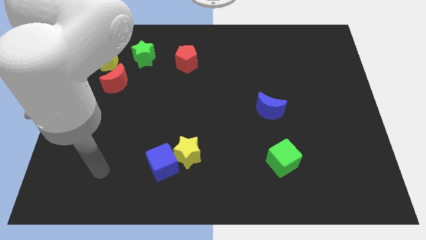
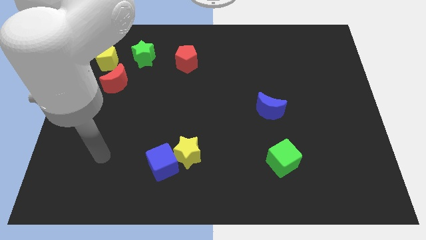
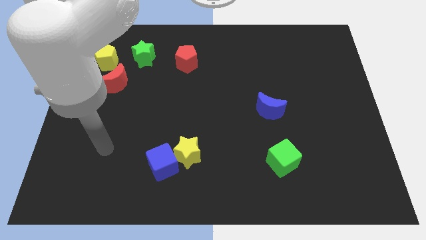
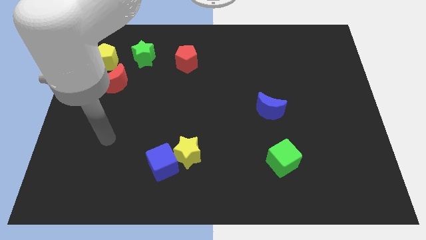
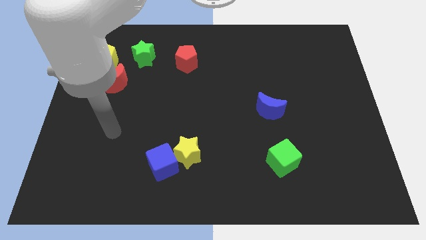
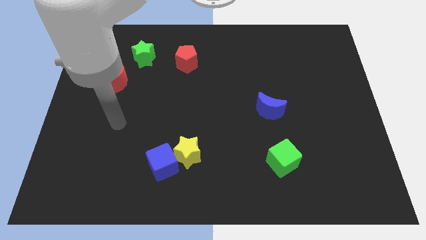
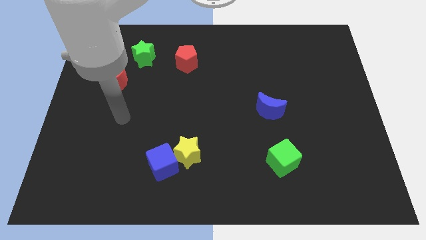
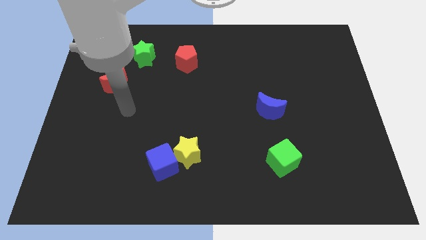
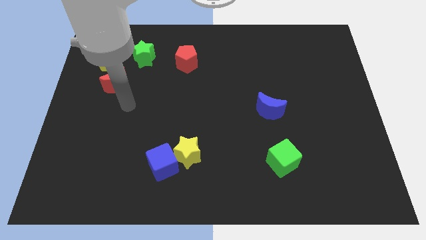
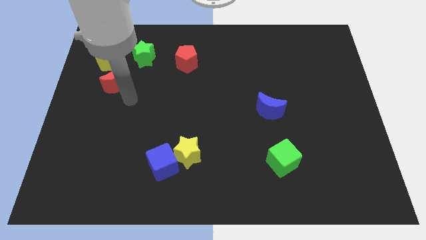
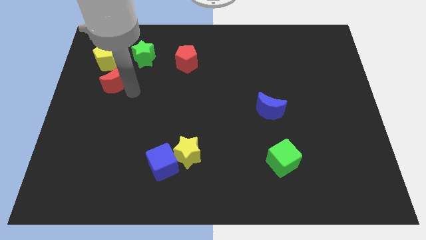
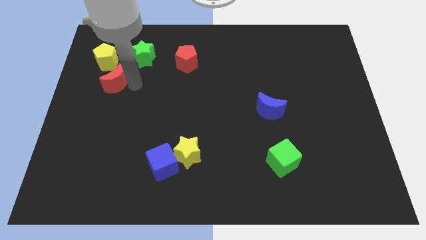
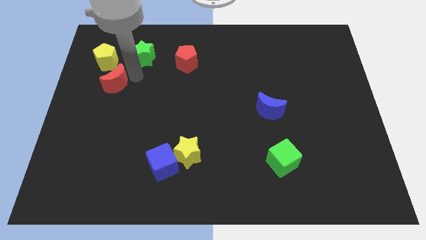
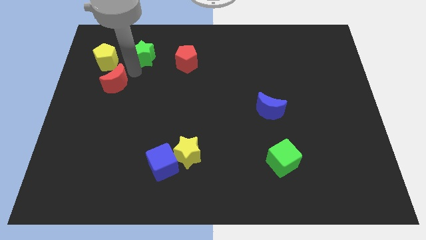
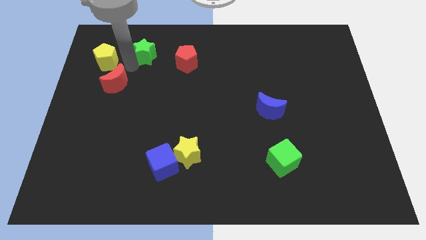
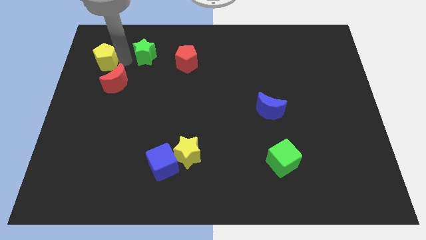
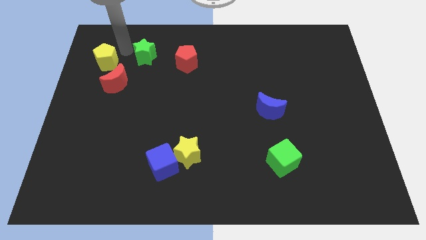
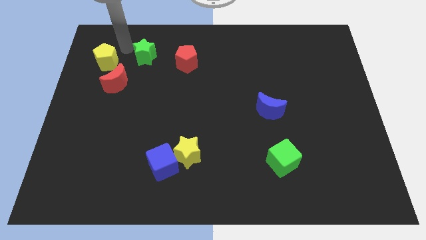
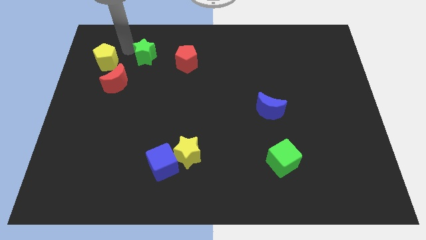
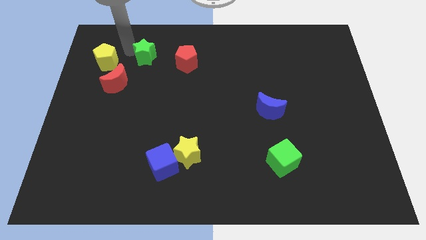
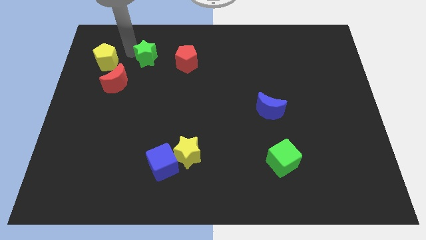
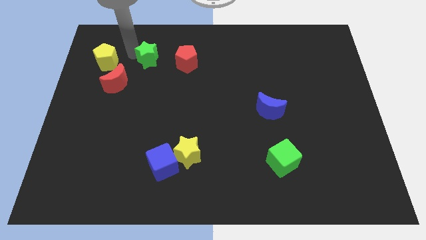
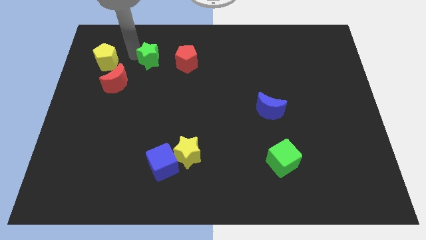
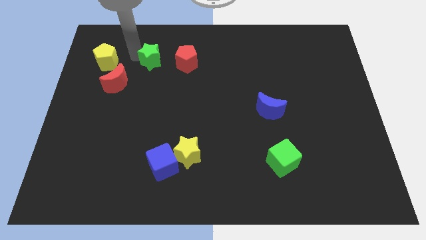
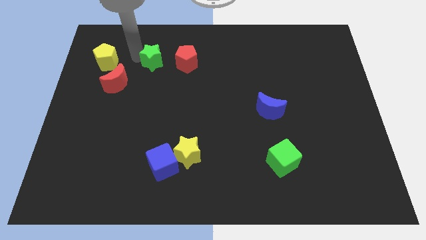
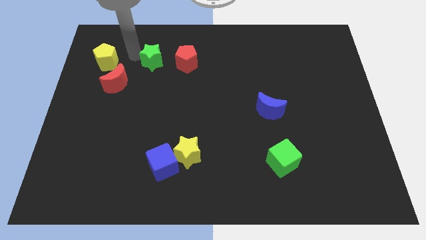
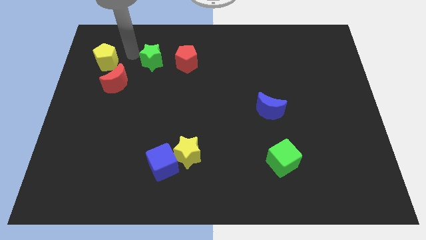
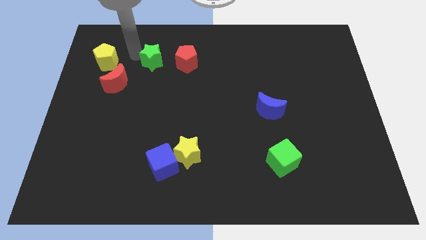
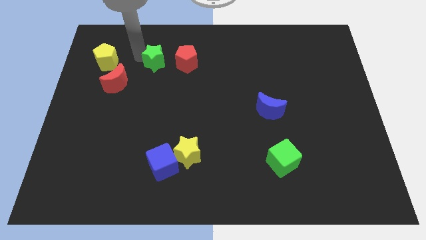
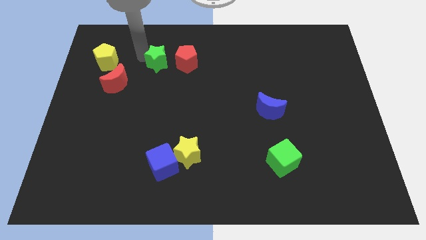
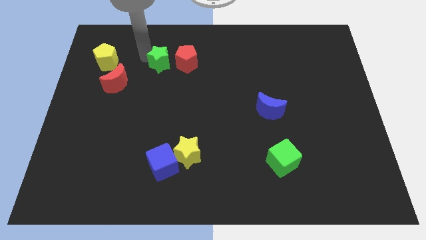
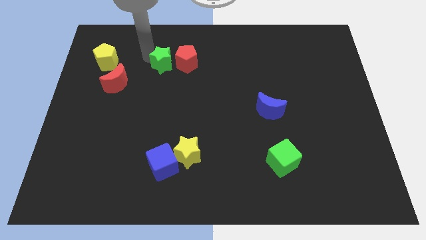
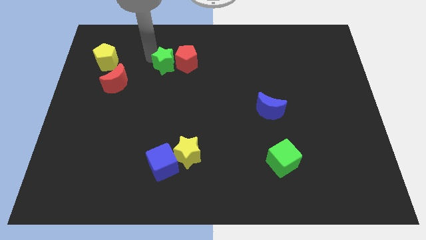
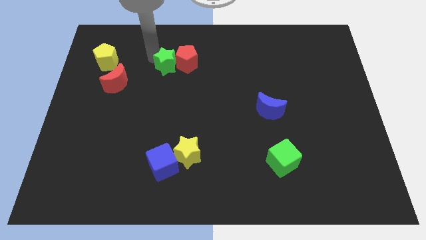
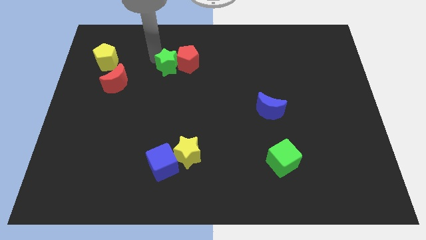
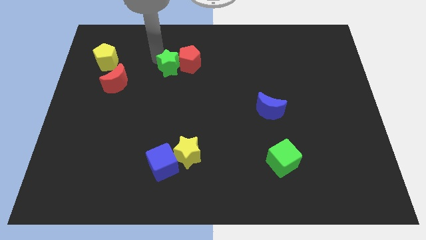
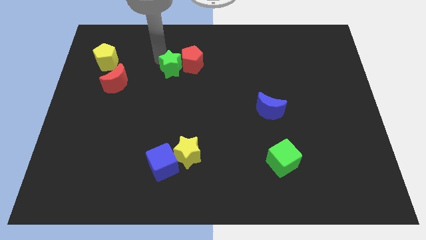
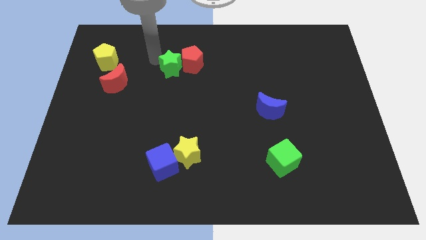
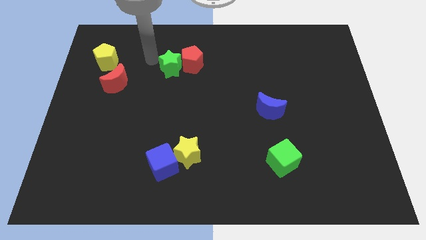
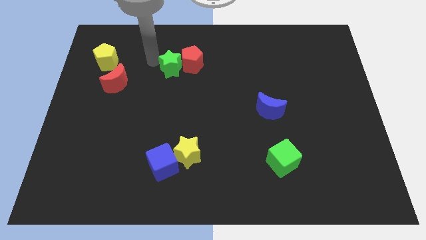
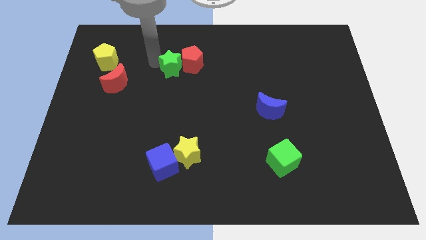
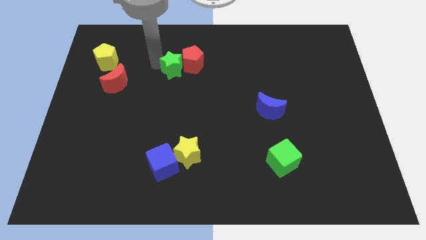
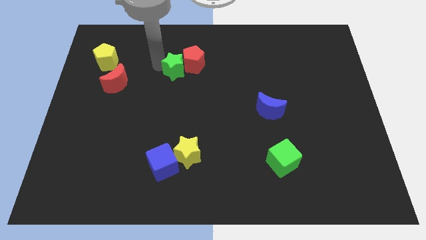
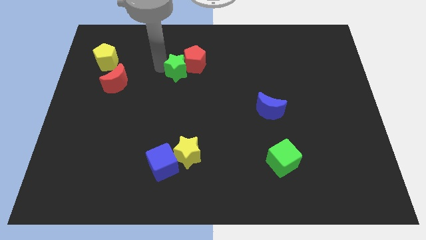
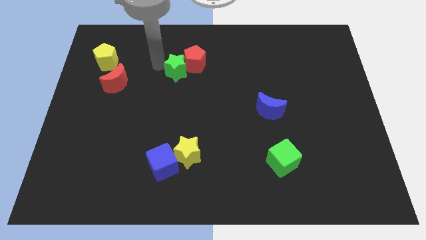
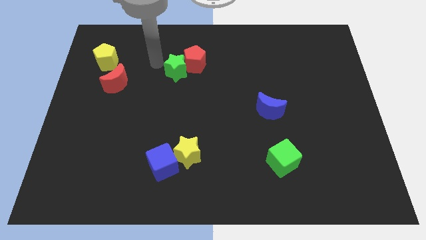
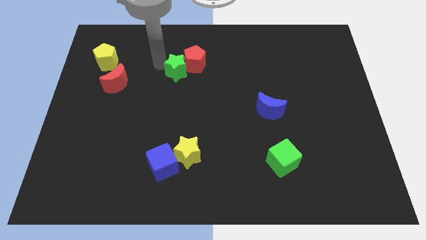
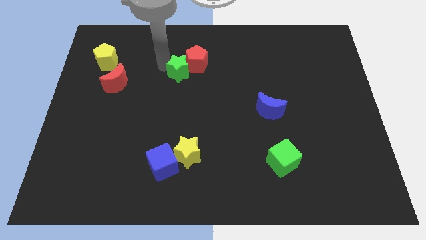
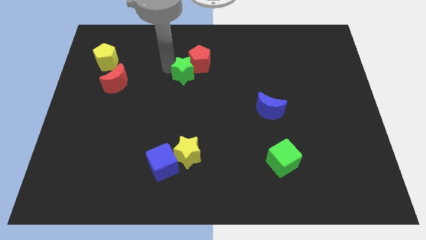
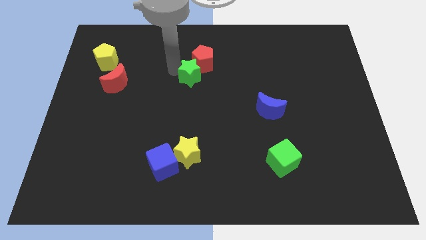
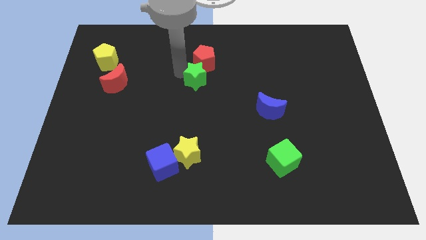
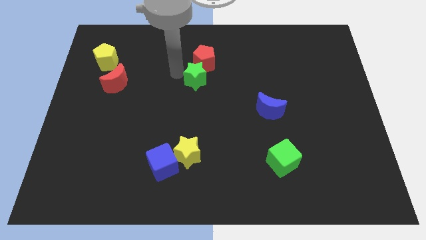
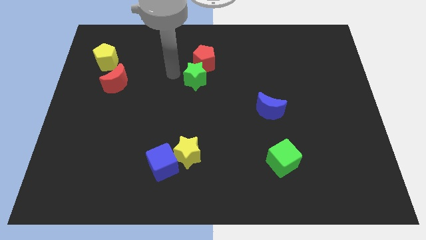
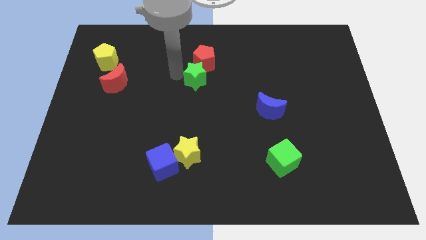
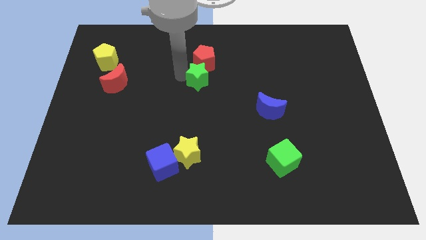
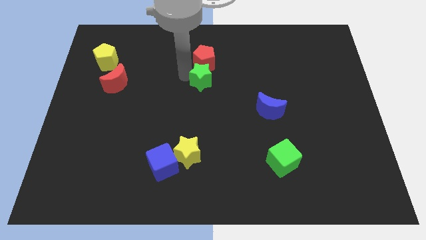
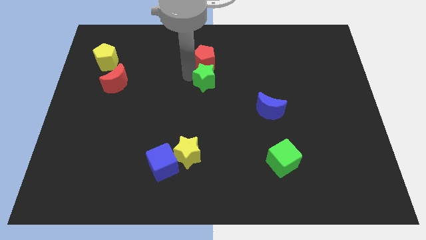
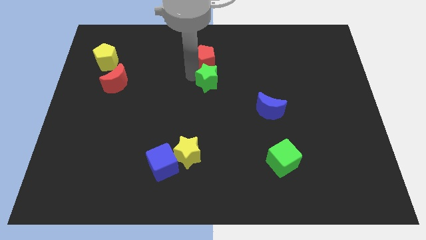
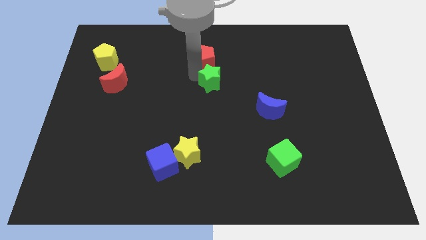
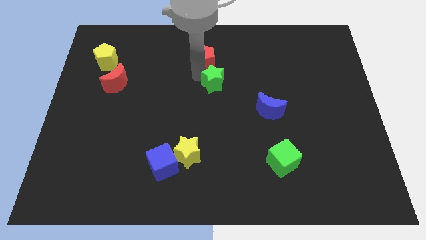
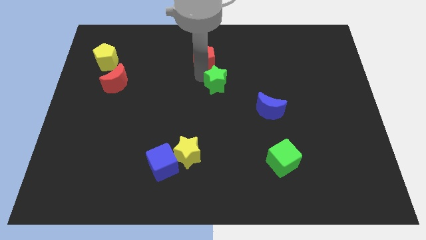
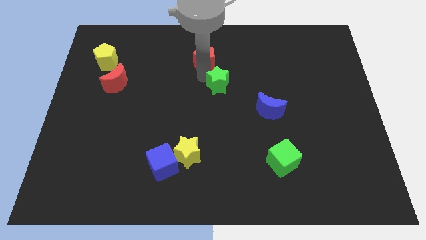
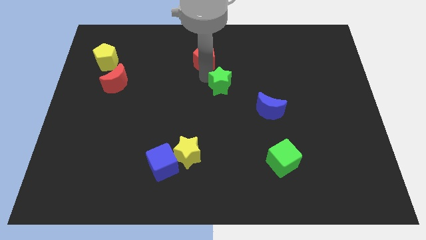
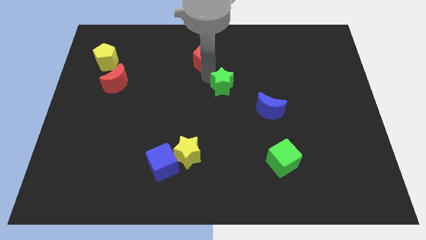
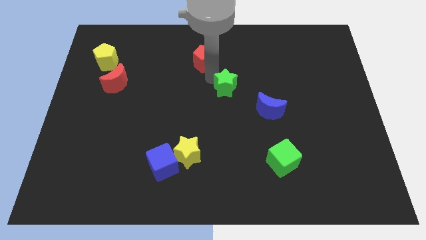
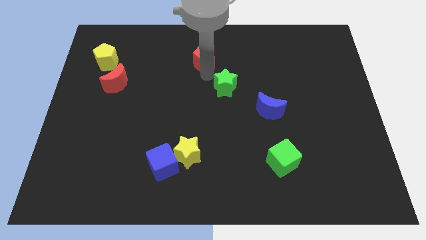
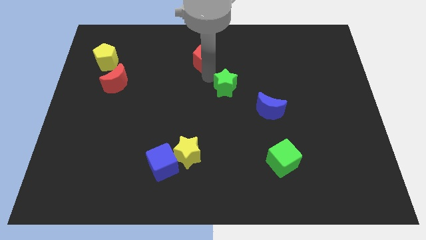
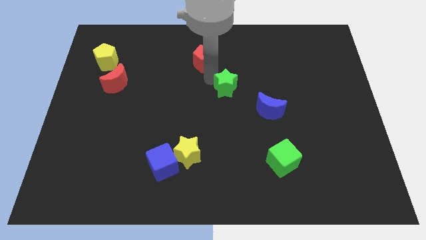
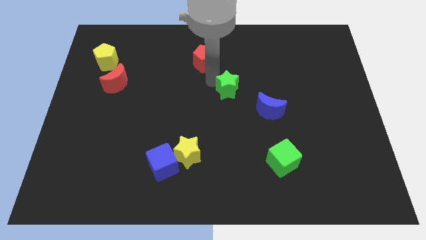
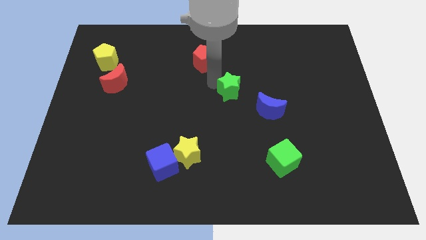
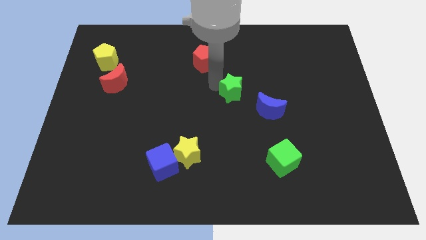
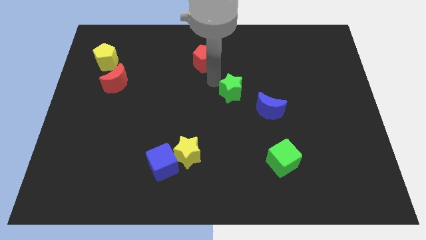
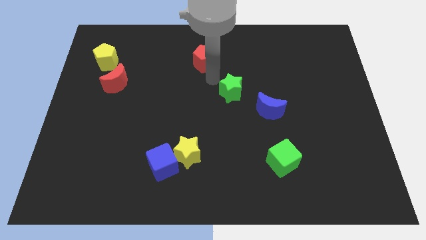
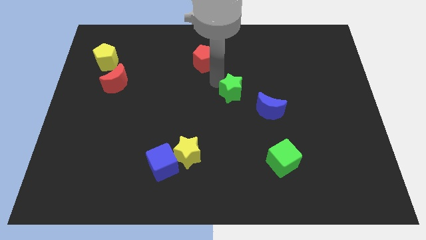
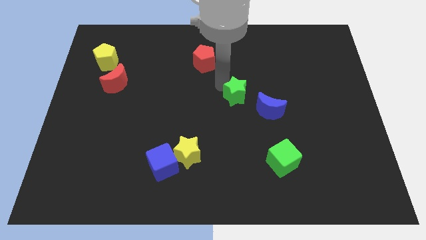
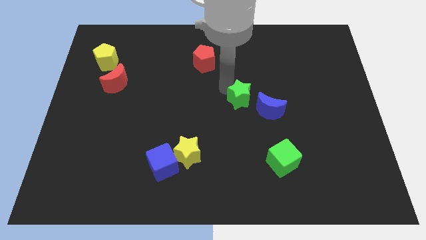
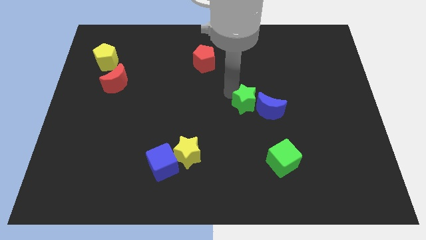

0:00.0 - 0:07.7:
slide the green star next to the blue moon

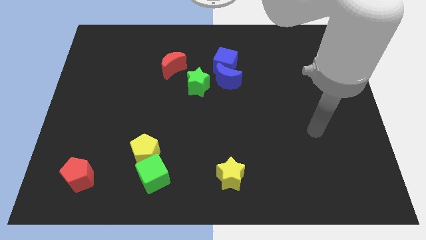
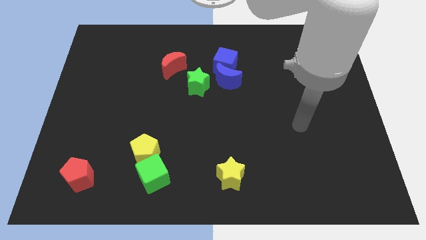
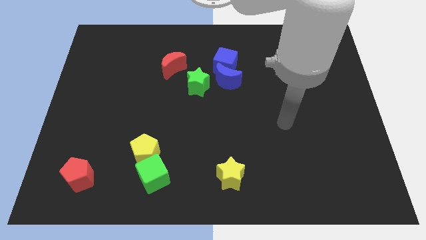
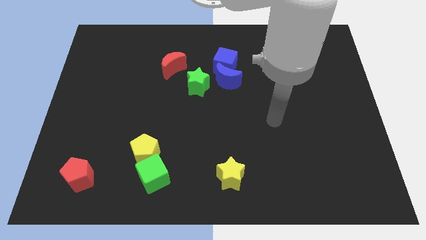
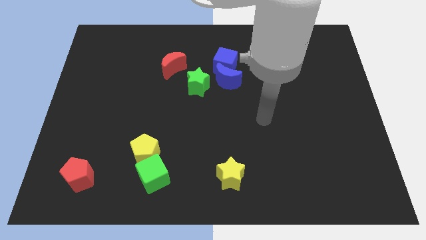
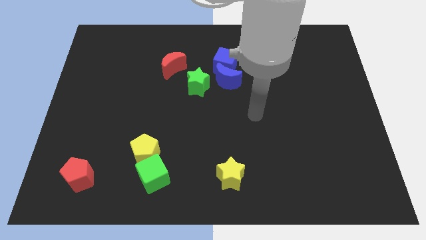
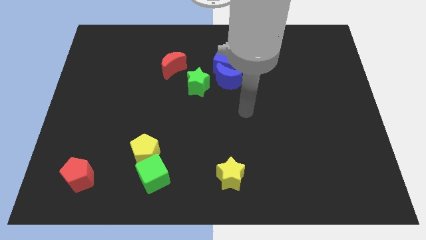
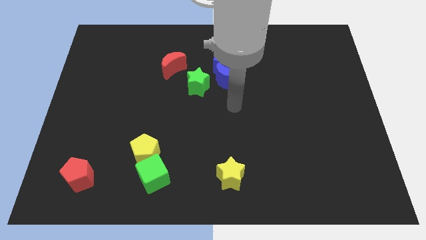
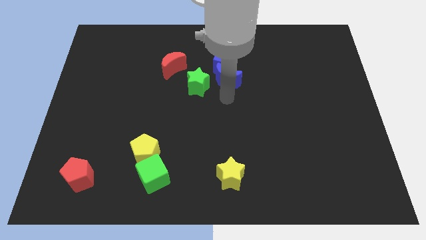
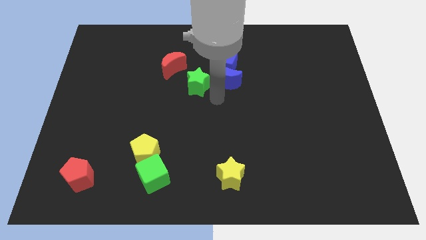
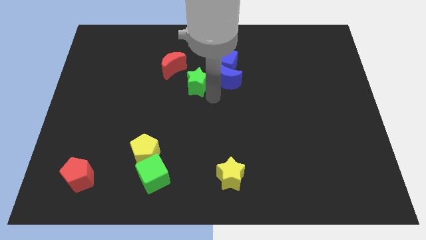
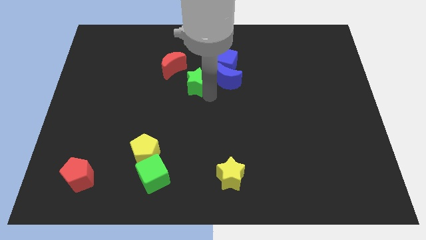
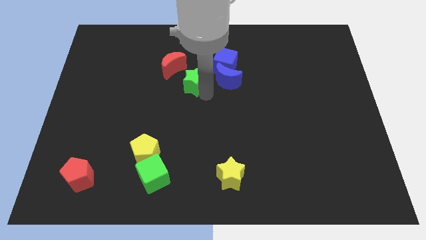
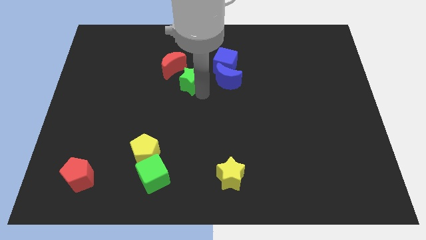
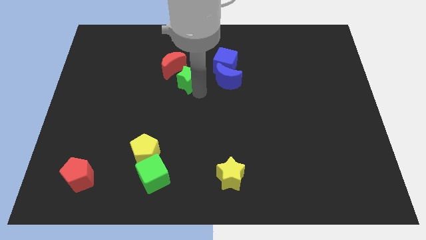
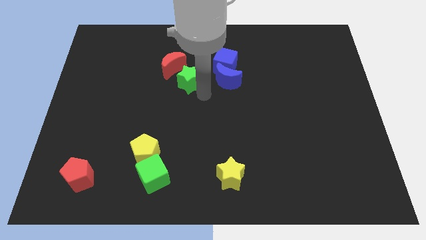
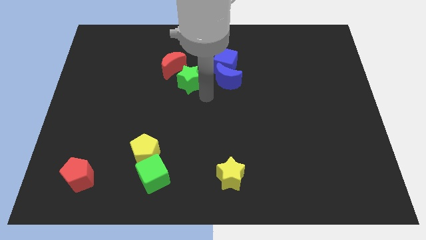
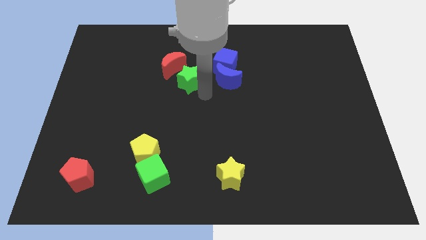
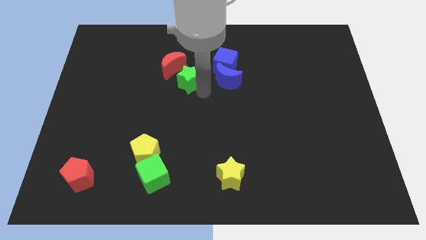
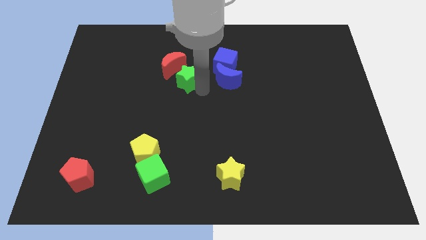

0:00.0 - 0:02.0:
move the green star to the red moon
